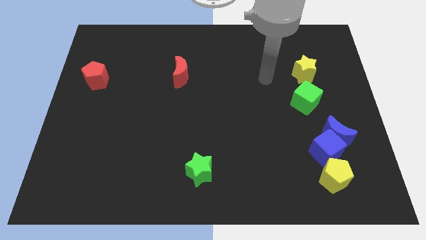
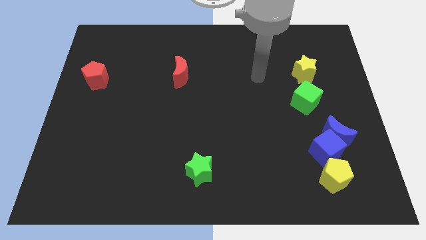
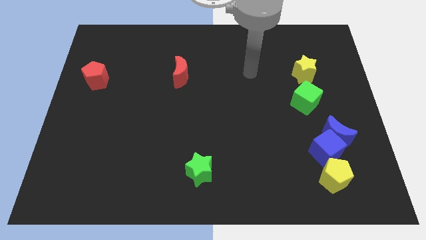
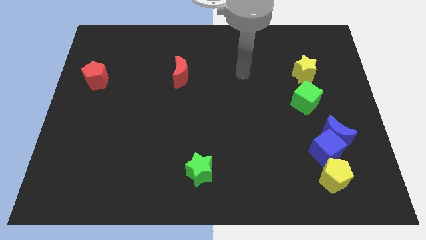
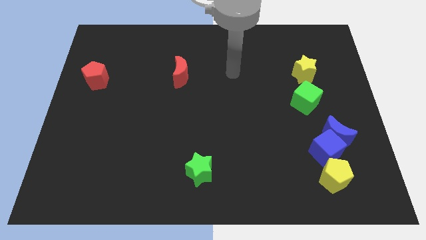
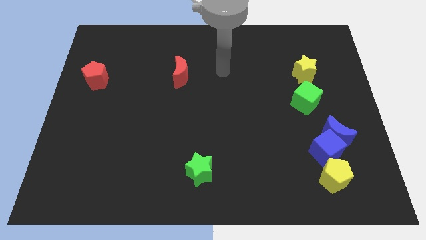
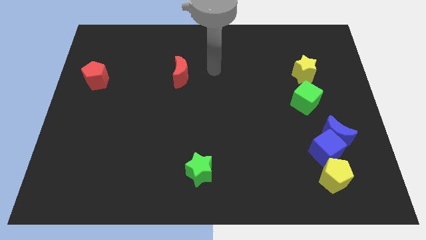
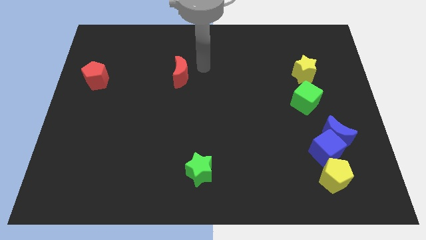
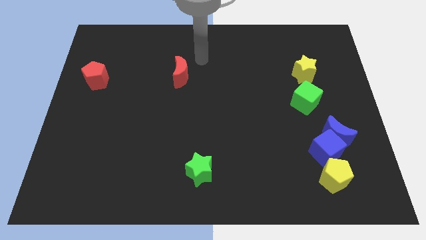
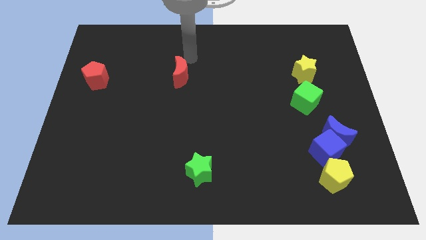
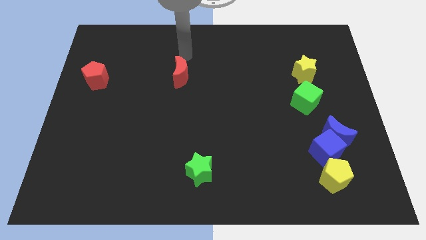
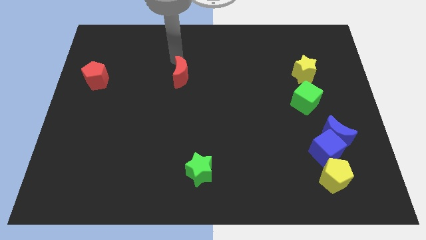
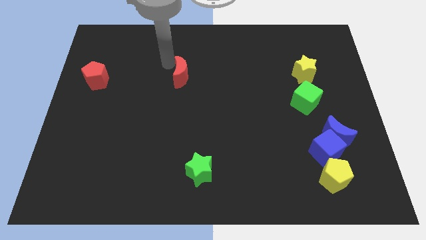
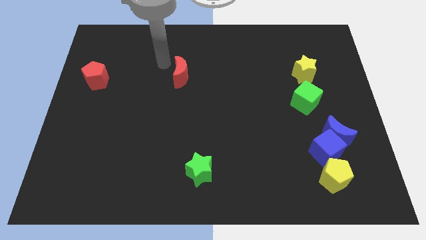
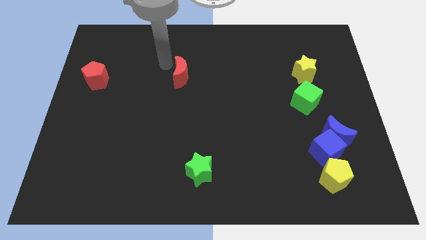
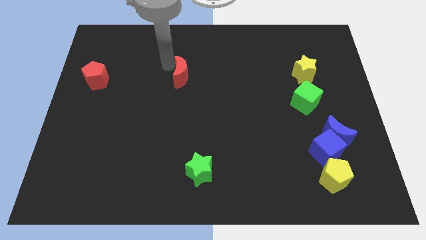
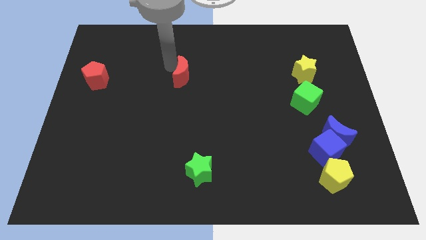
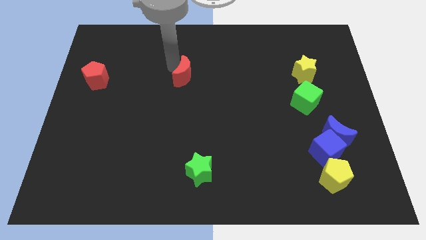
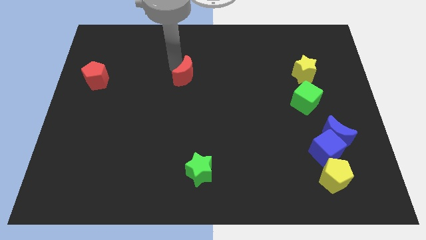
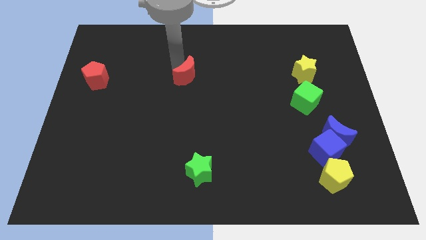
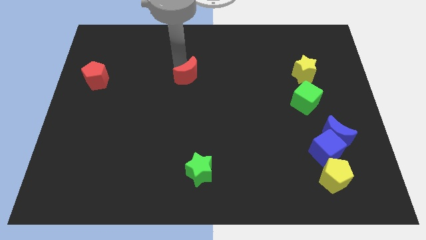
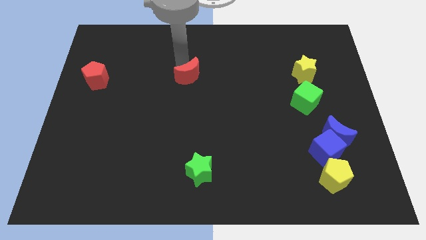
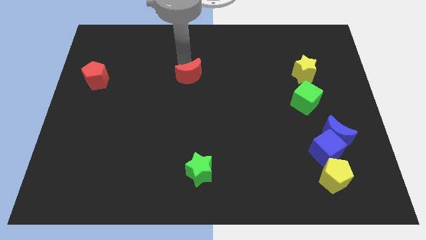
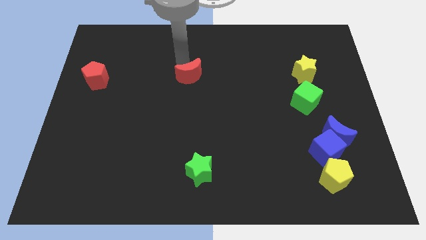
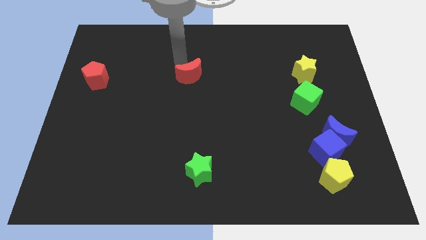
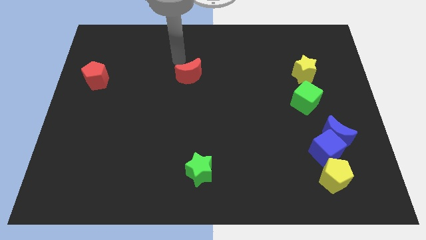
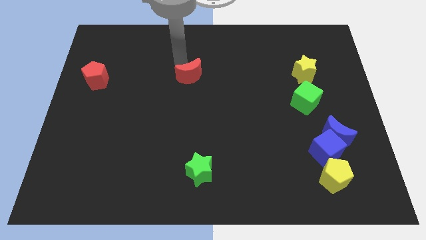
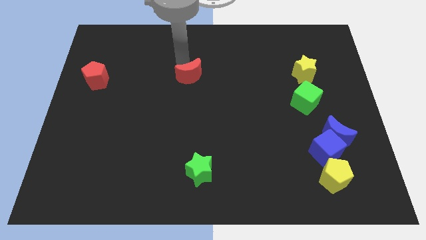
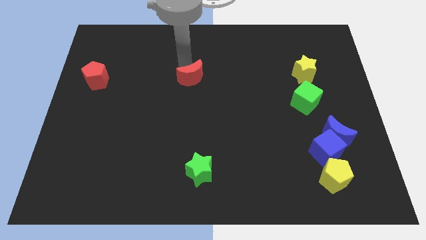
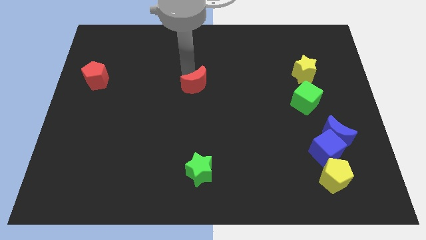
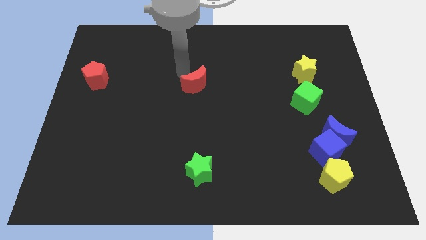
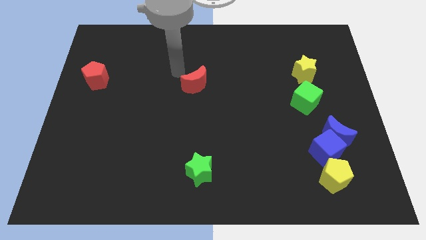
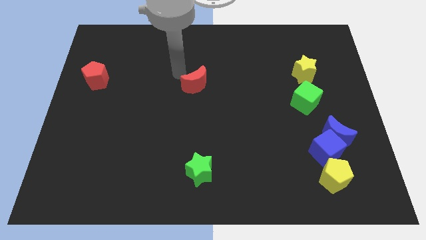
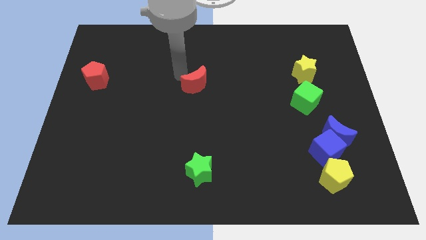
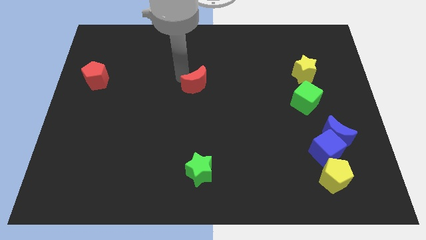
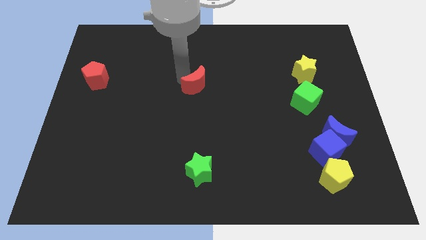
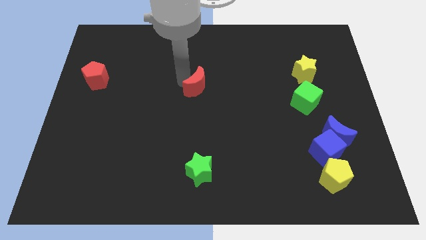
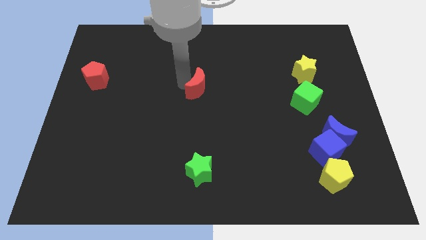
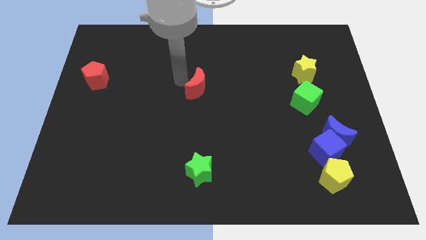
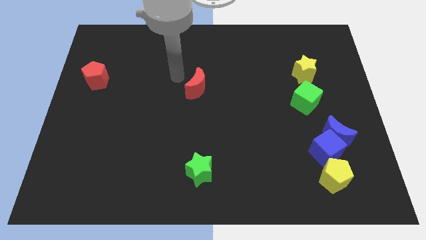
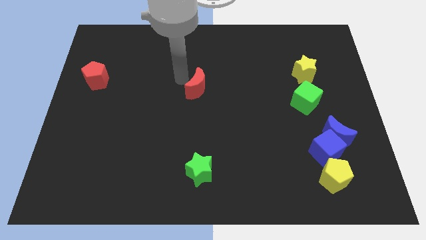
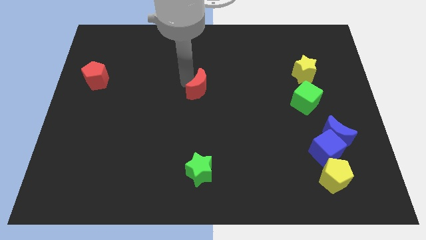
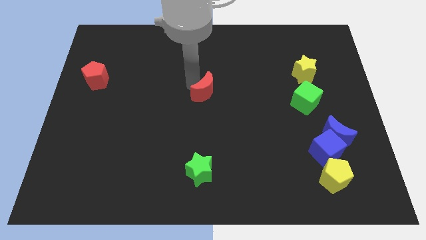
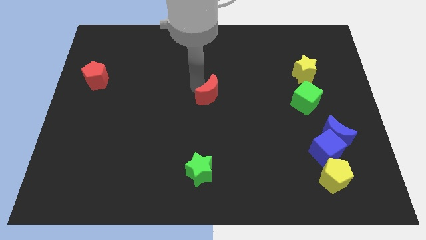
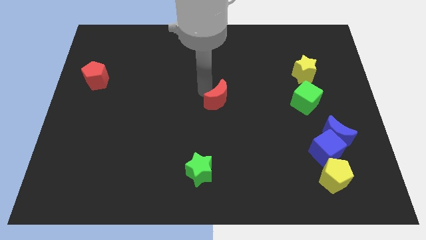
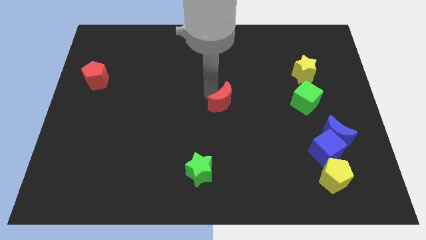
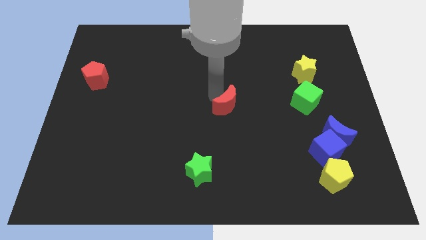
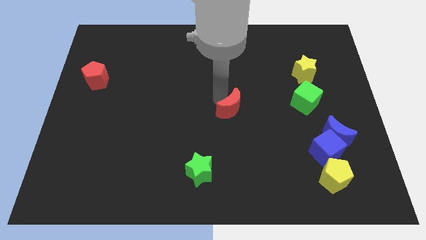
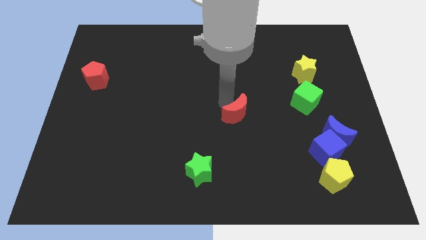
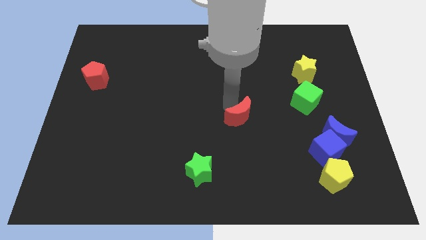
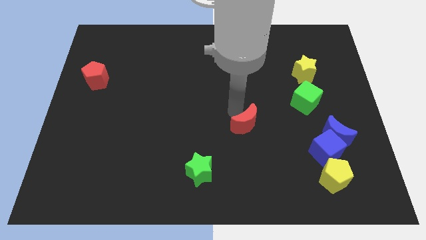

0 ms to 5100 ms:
move the red moon downwards and then right

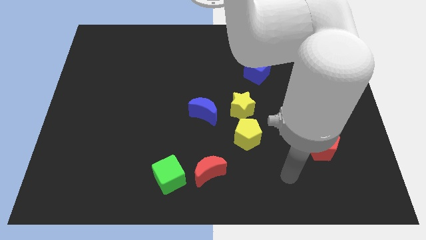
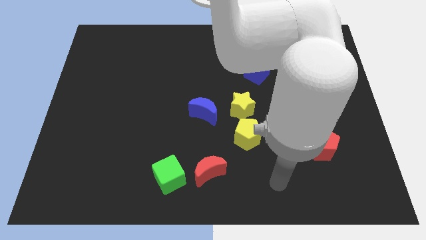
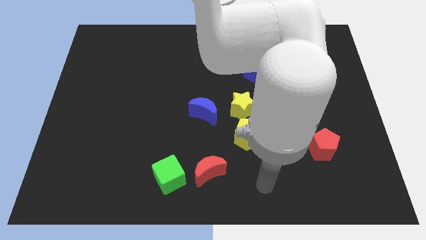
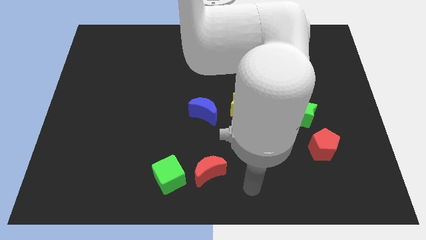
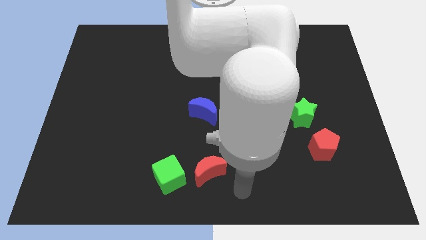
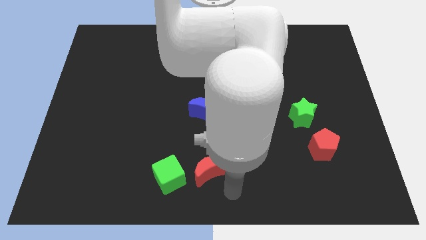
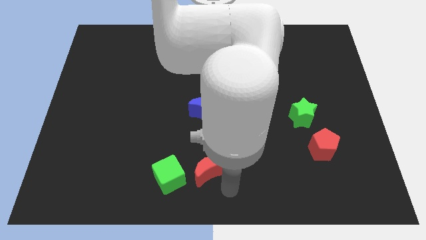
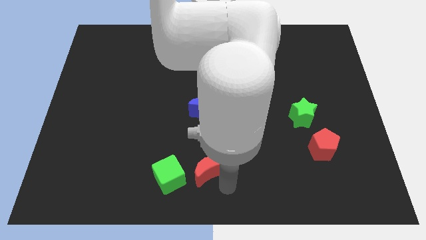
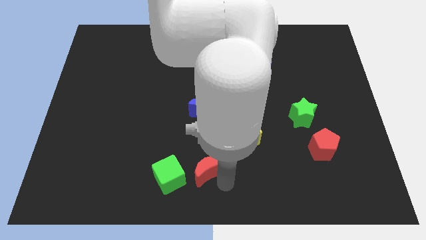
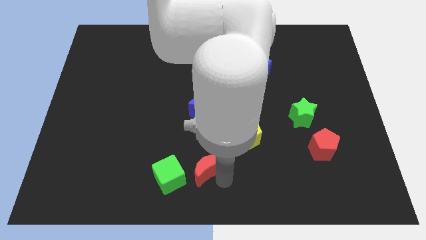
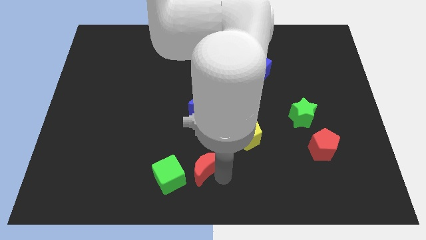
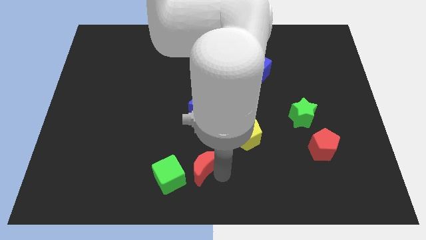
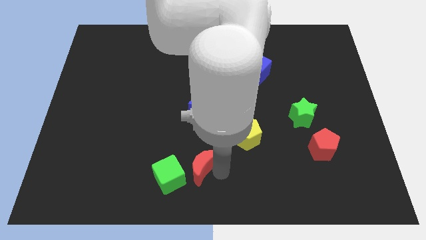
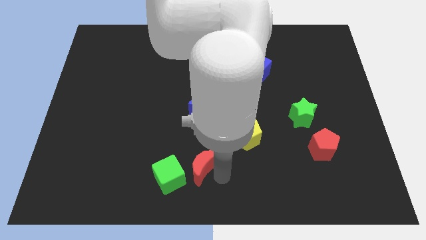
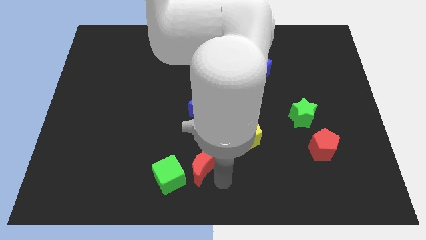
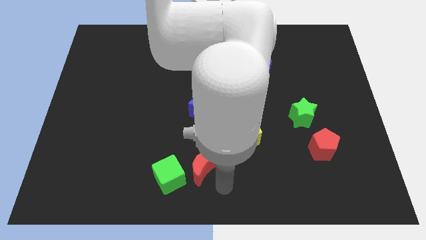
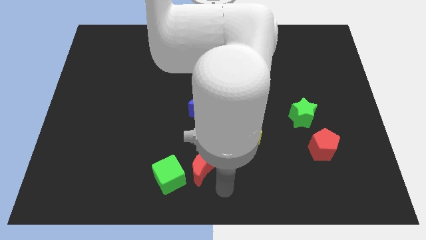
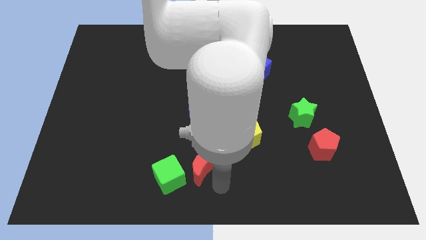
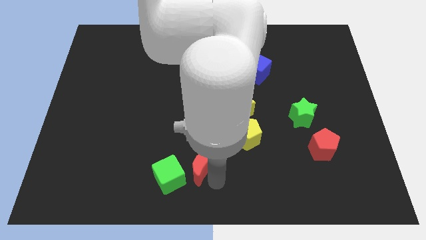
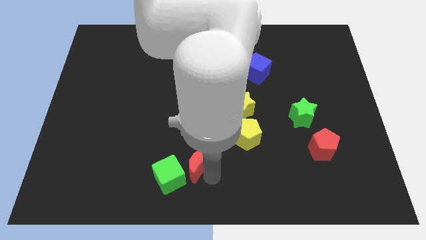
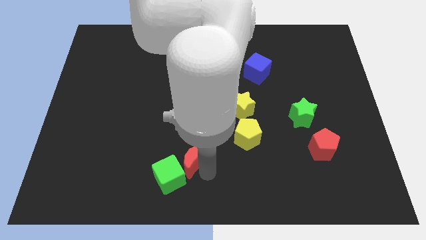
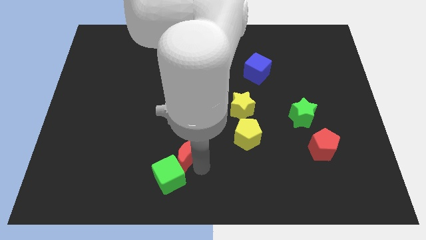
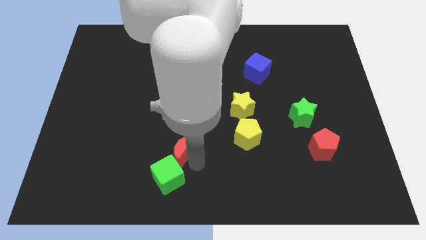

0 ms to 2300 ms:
push the red moon up and to the left diagonally slightly

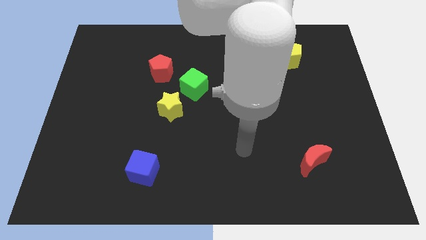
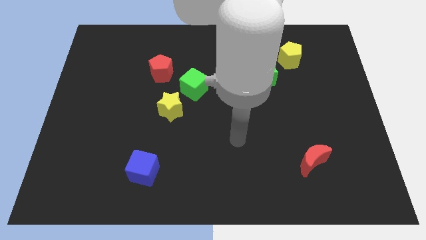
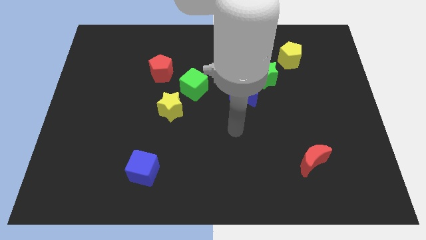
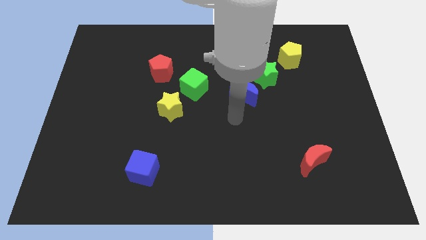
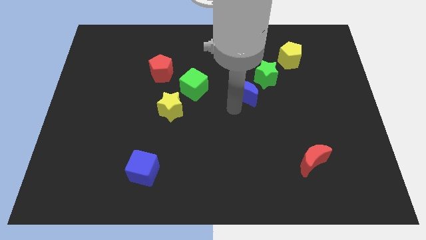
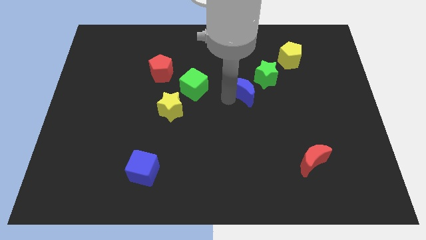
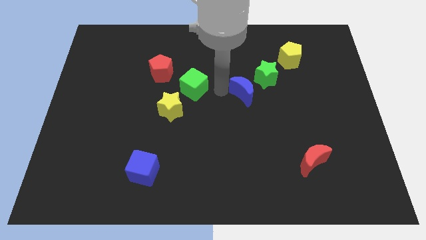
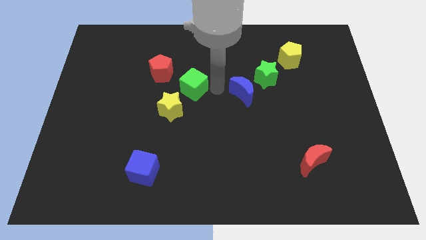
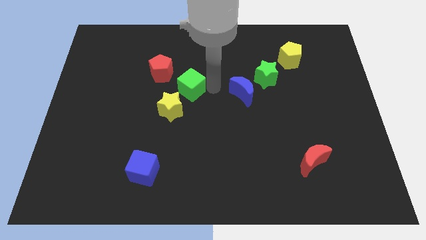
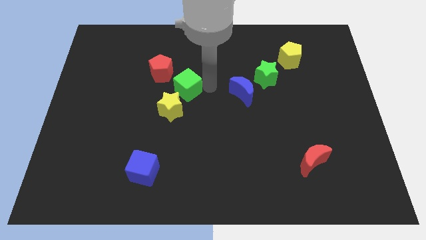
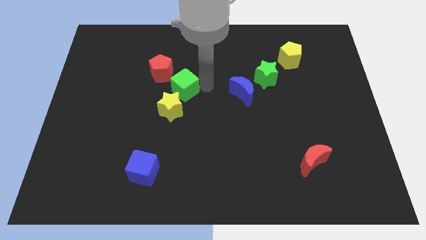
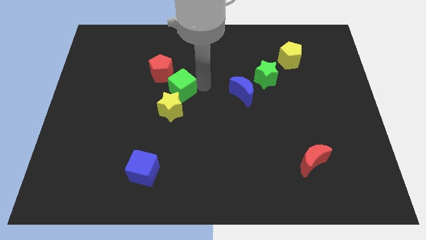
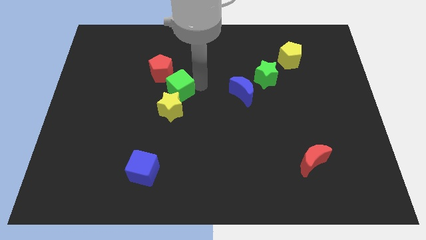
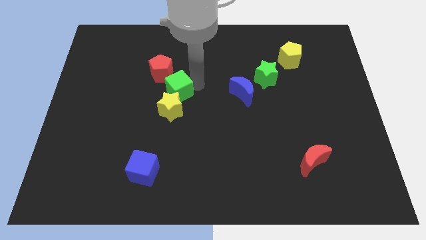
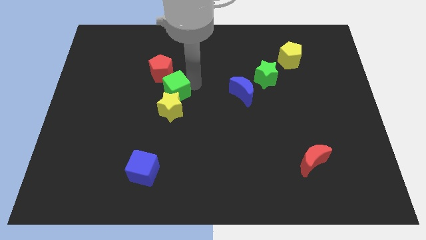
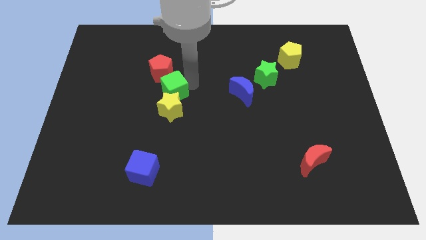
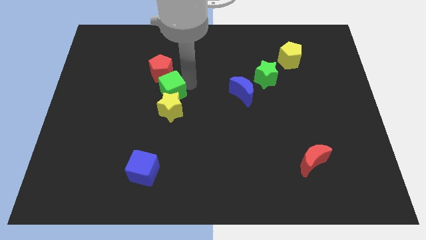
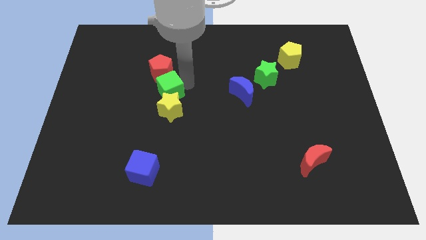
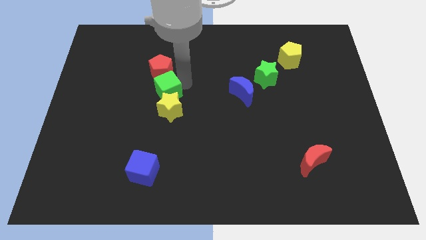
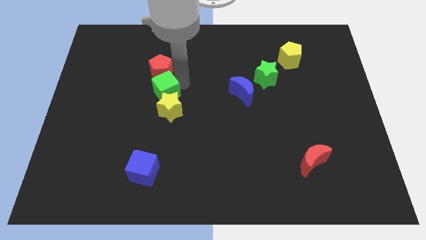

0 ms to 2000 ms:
slide the green cube to the left somewhat
